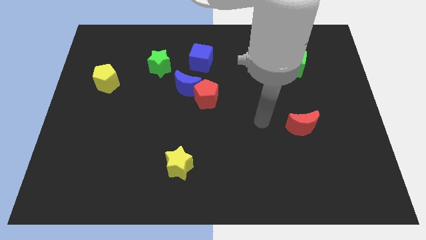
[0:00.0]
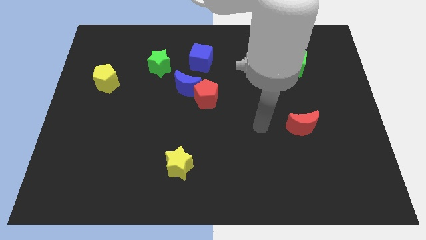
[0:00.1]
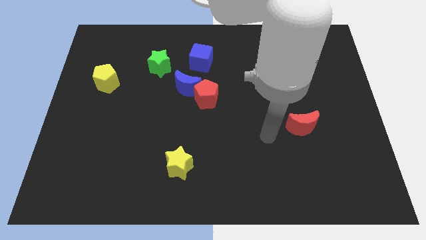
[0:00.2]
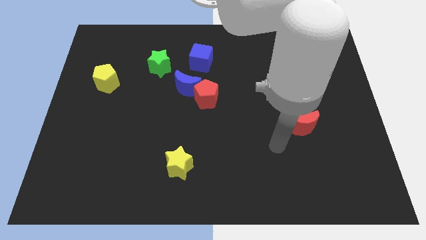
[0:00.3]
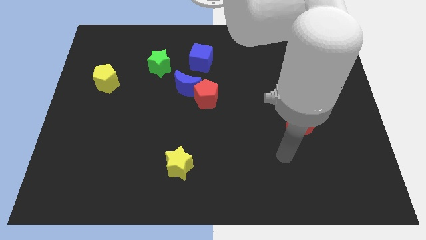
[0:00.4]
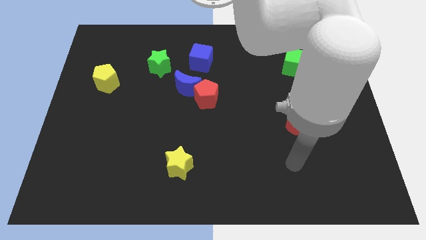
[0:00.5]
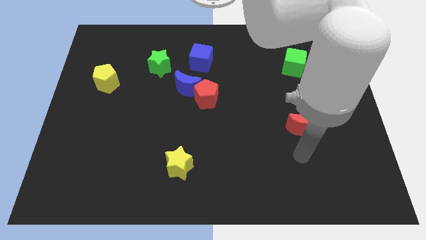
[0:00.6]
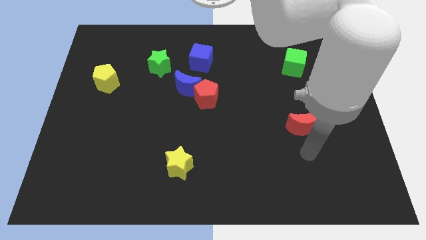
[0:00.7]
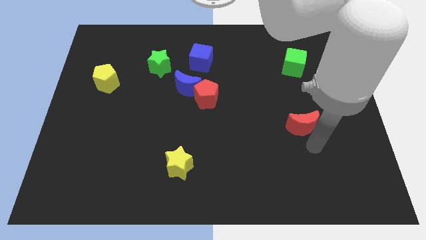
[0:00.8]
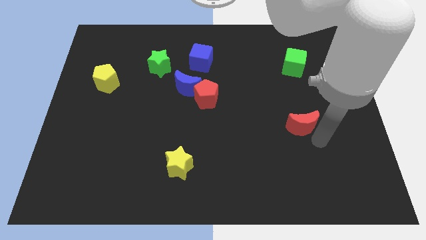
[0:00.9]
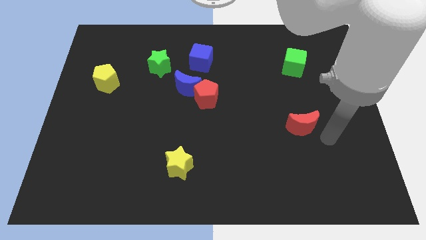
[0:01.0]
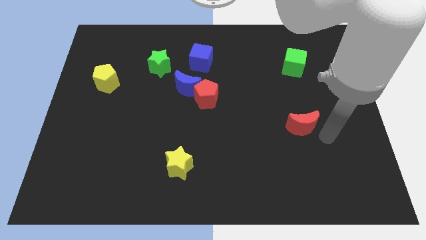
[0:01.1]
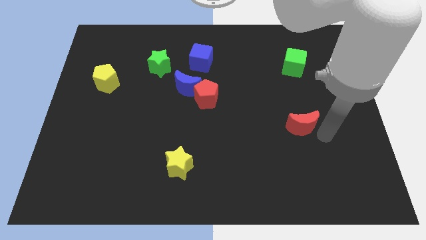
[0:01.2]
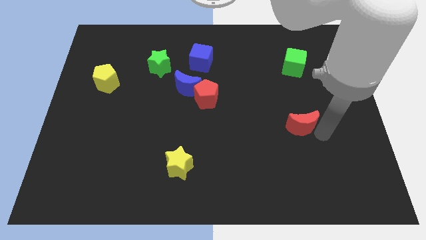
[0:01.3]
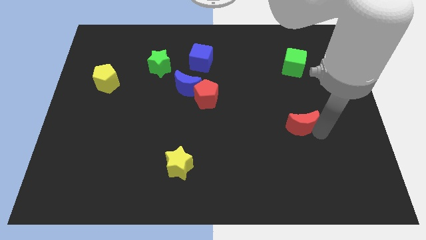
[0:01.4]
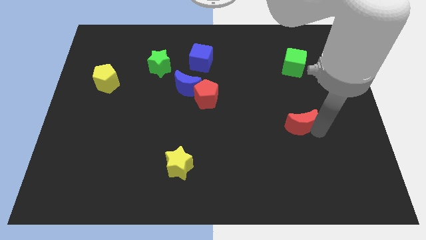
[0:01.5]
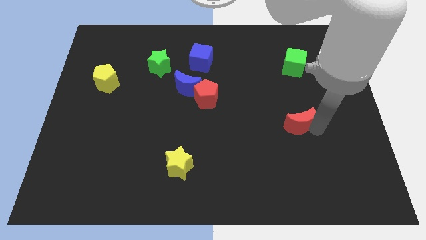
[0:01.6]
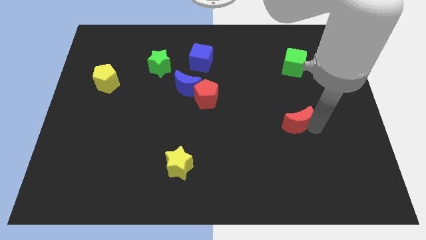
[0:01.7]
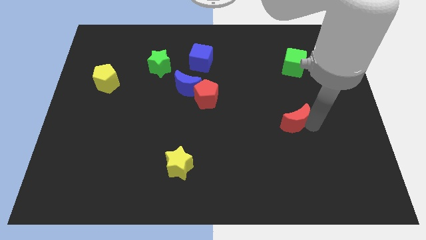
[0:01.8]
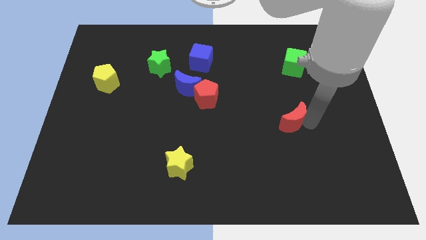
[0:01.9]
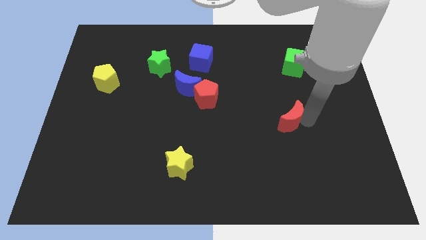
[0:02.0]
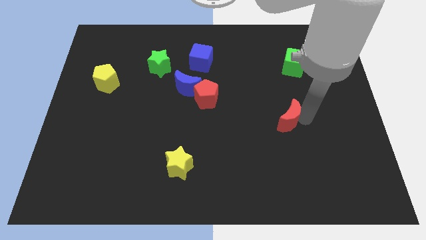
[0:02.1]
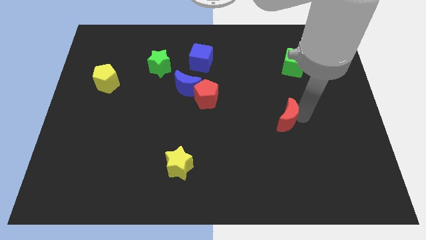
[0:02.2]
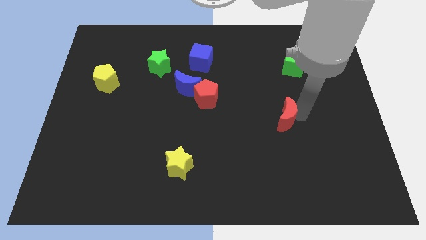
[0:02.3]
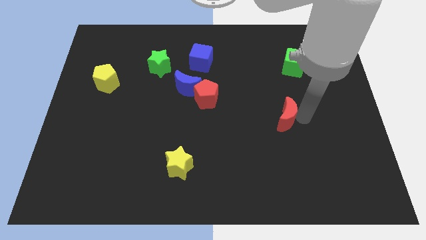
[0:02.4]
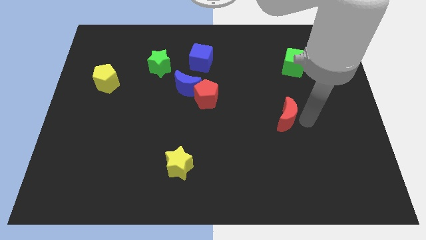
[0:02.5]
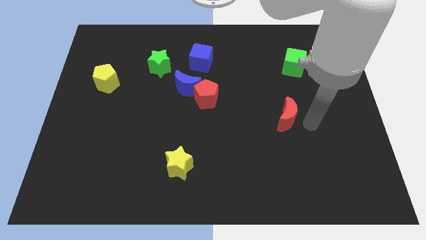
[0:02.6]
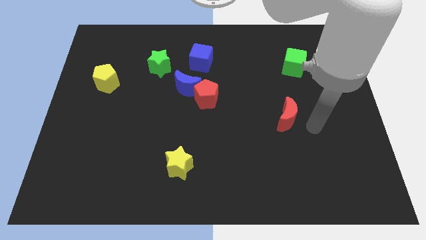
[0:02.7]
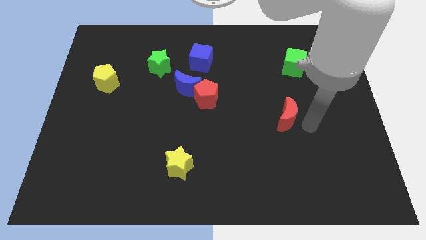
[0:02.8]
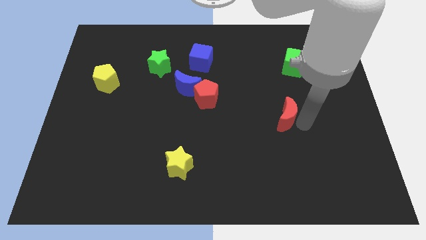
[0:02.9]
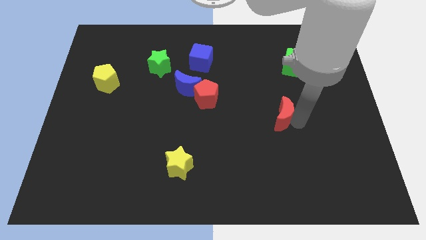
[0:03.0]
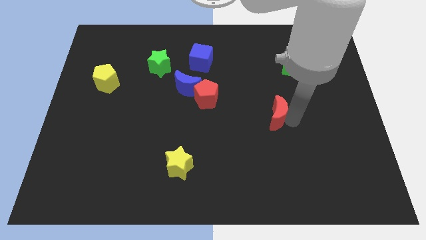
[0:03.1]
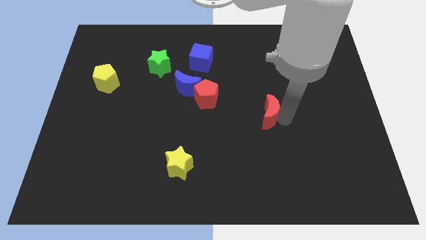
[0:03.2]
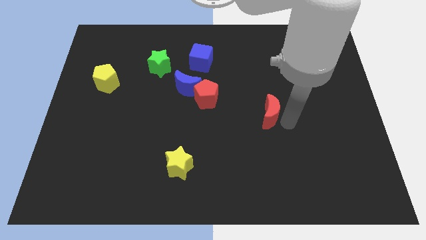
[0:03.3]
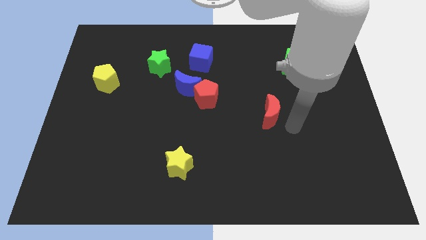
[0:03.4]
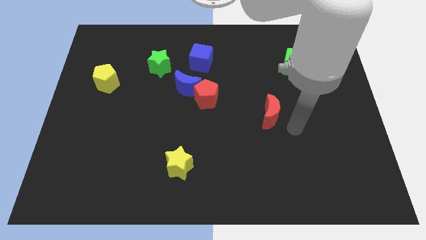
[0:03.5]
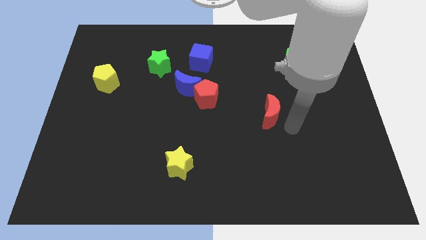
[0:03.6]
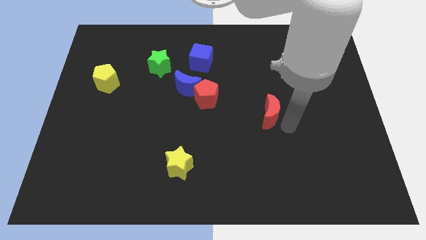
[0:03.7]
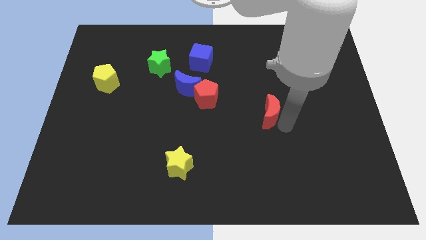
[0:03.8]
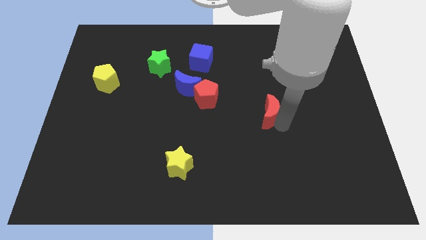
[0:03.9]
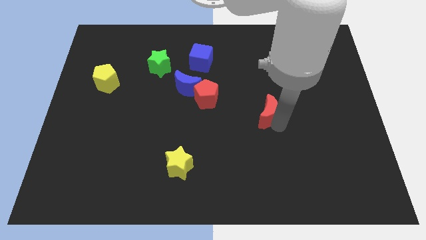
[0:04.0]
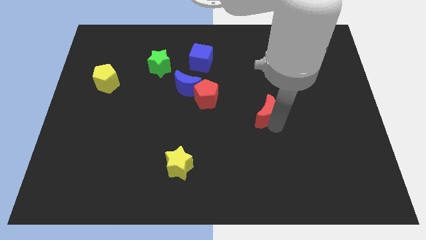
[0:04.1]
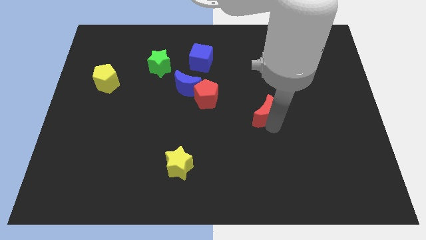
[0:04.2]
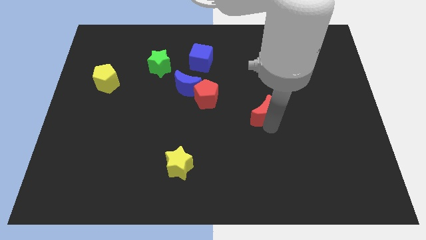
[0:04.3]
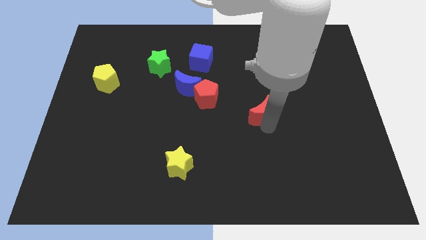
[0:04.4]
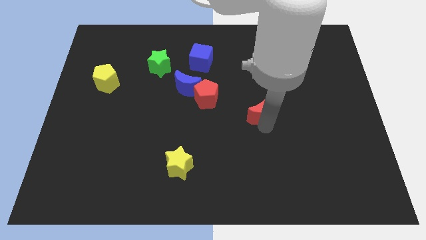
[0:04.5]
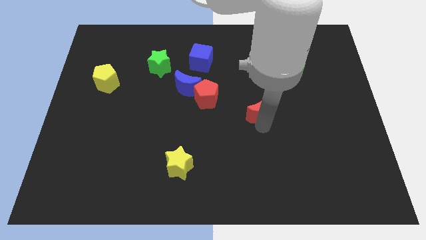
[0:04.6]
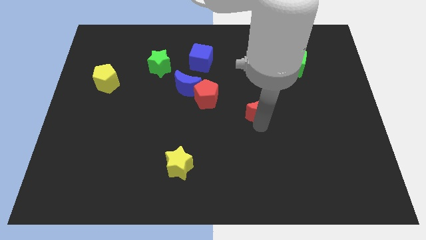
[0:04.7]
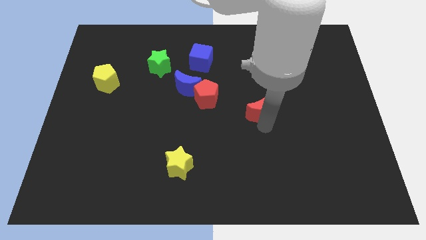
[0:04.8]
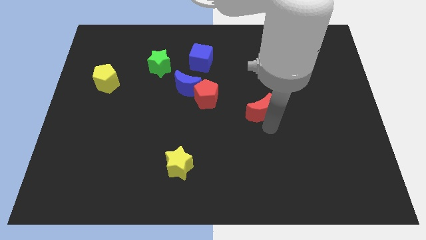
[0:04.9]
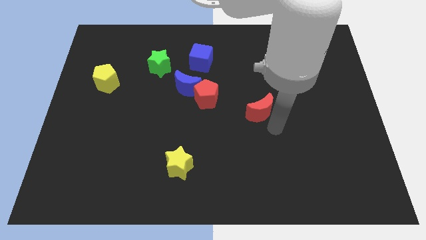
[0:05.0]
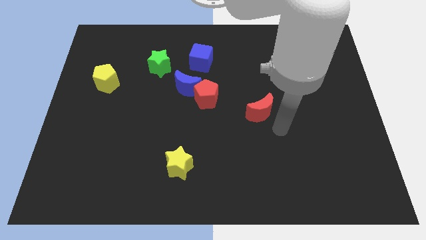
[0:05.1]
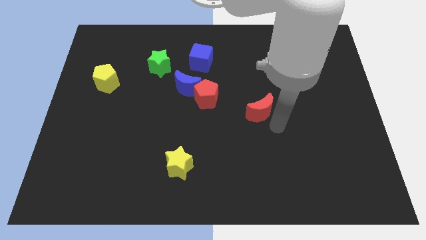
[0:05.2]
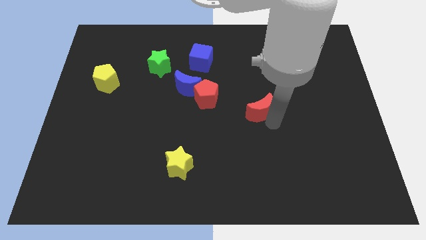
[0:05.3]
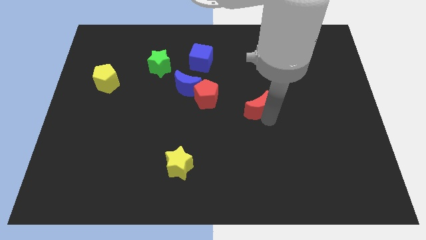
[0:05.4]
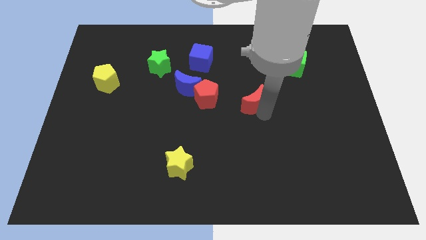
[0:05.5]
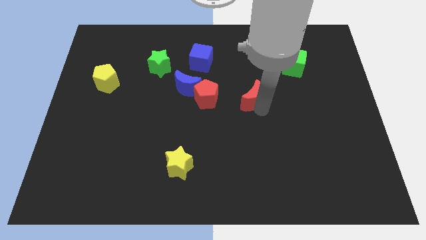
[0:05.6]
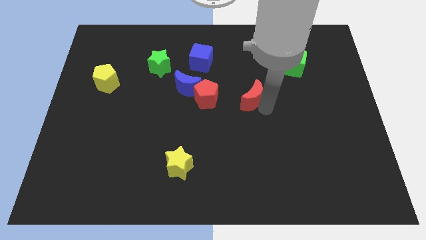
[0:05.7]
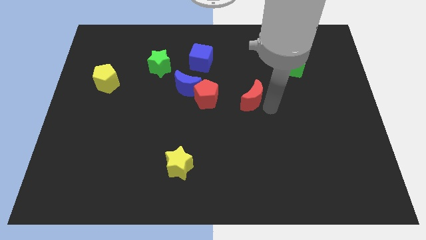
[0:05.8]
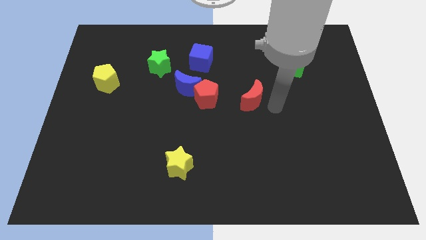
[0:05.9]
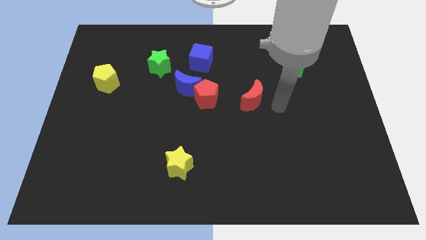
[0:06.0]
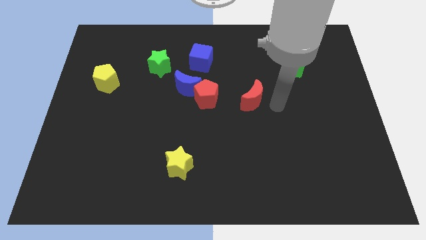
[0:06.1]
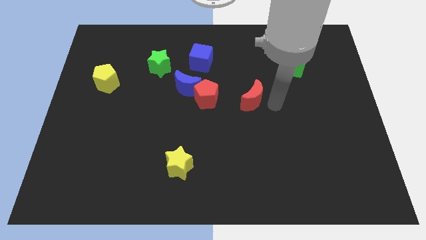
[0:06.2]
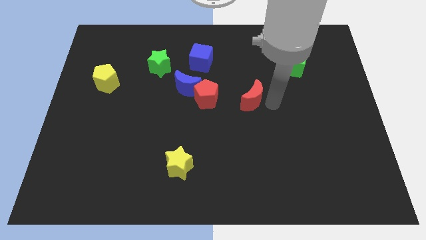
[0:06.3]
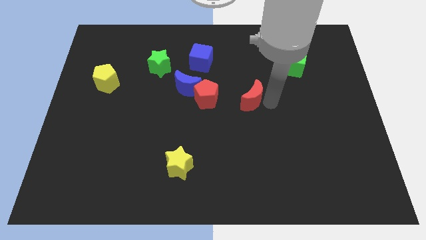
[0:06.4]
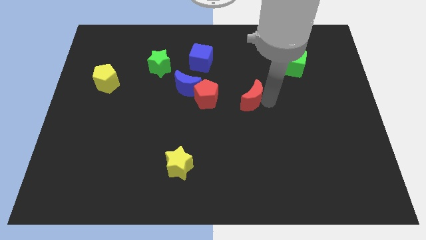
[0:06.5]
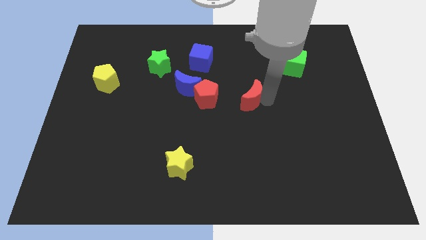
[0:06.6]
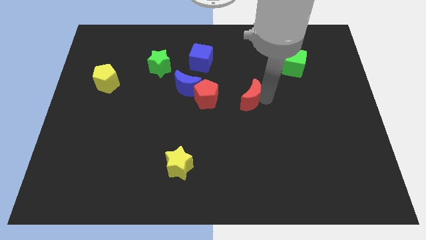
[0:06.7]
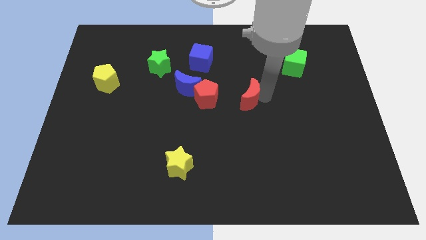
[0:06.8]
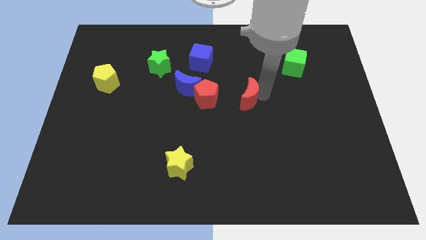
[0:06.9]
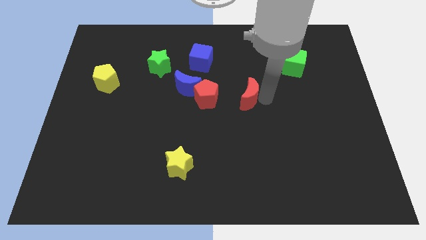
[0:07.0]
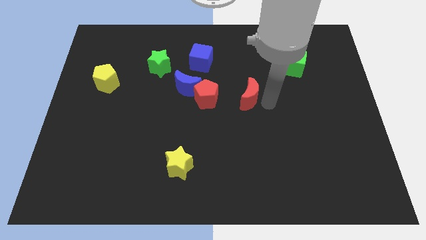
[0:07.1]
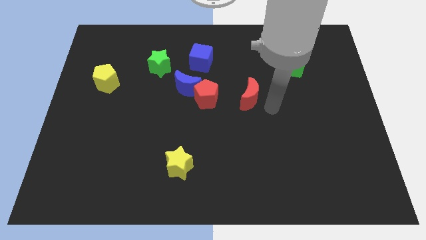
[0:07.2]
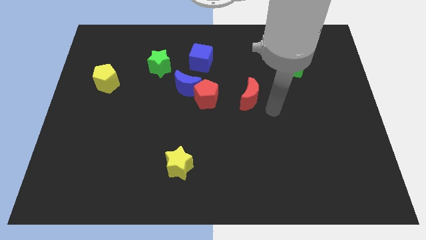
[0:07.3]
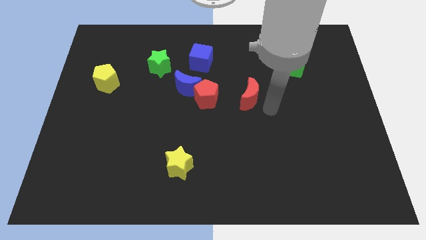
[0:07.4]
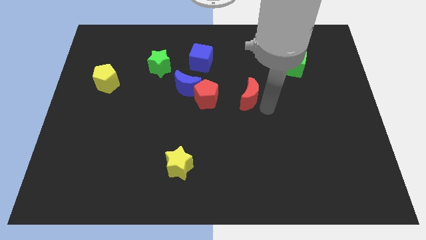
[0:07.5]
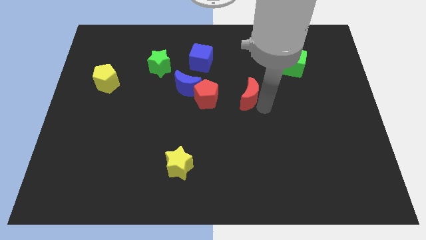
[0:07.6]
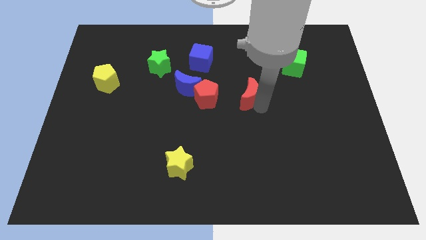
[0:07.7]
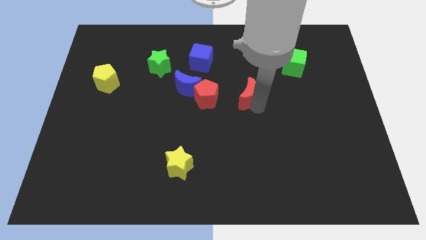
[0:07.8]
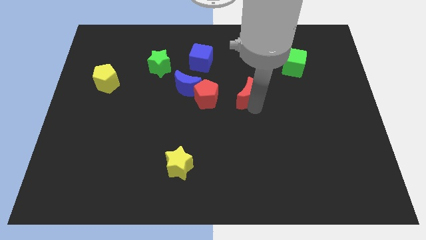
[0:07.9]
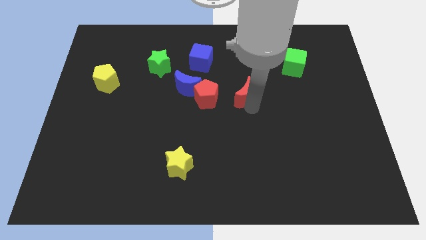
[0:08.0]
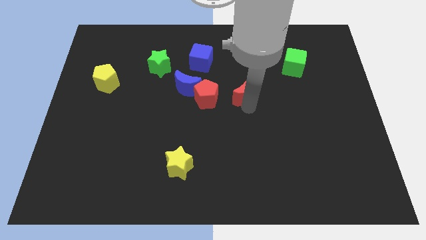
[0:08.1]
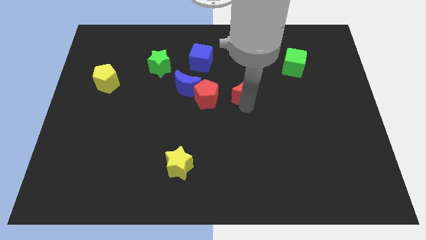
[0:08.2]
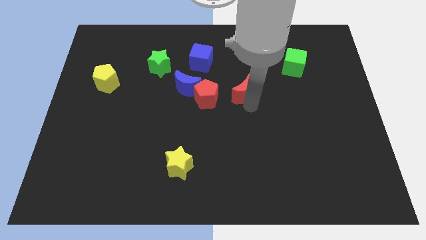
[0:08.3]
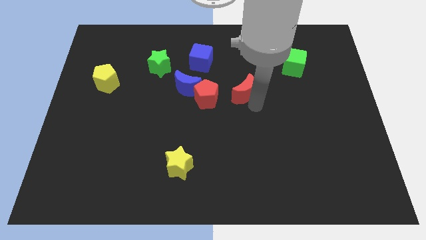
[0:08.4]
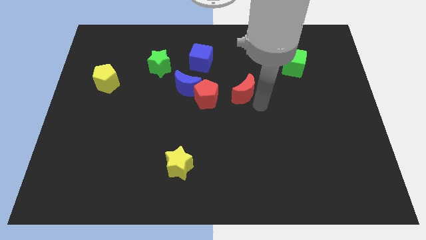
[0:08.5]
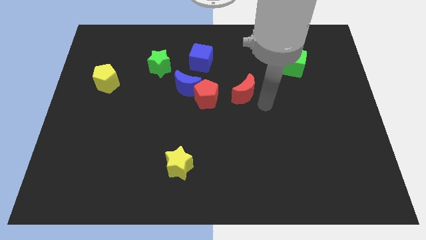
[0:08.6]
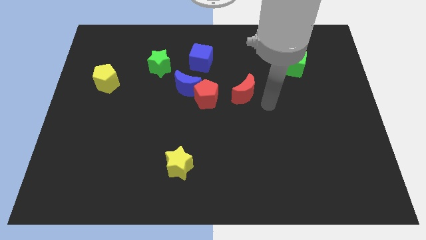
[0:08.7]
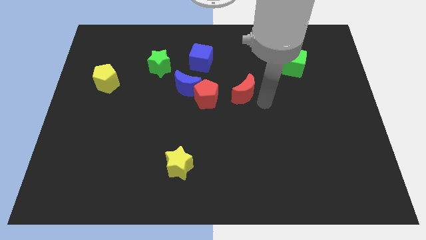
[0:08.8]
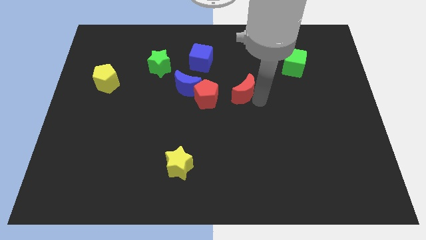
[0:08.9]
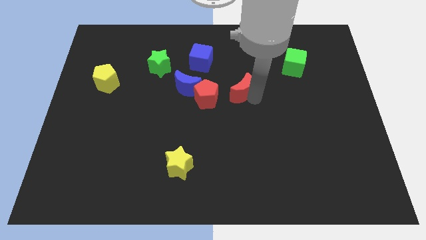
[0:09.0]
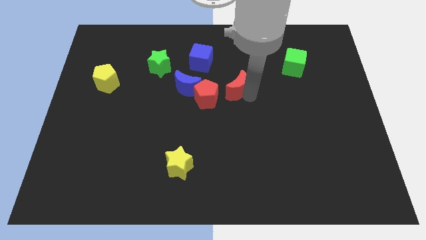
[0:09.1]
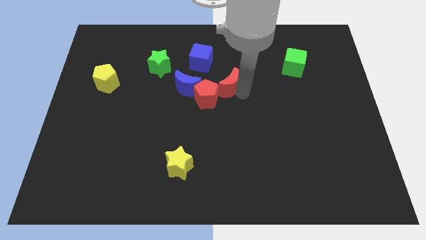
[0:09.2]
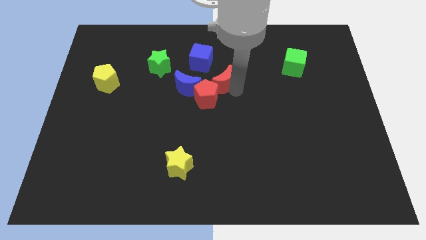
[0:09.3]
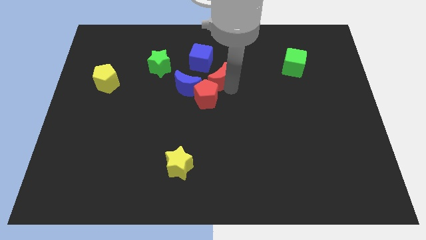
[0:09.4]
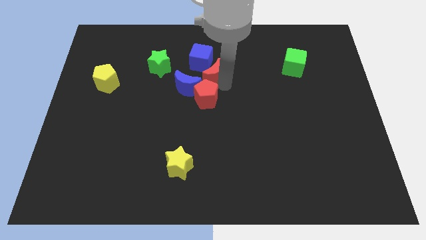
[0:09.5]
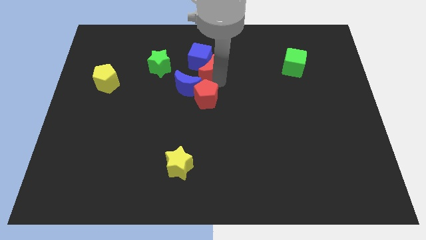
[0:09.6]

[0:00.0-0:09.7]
slide the red moon towards the blue cube
